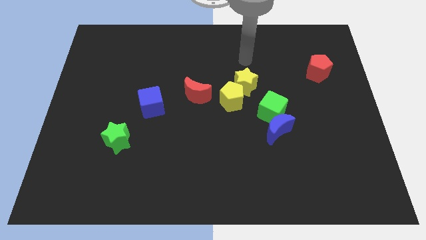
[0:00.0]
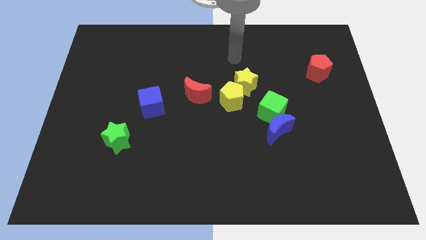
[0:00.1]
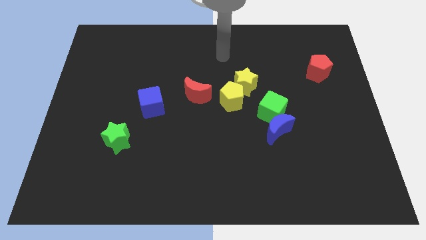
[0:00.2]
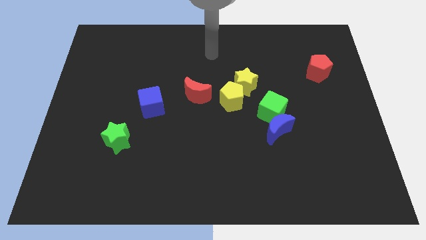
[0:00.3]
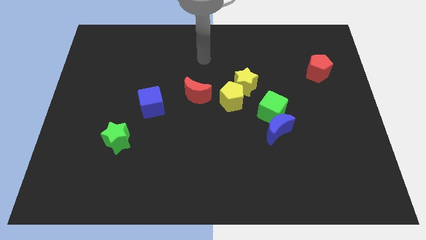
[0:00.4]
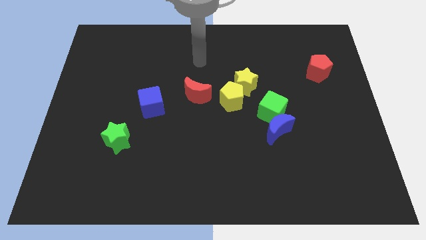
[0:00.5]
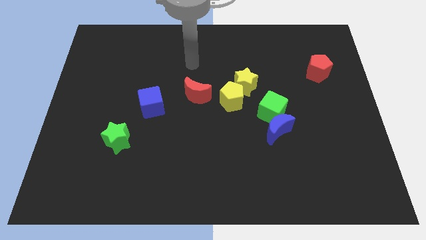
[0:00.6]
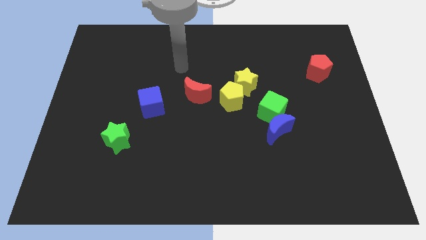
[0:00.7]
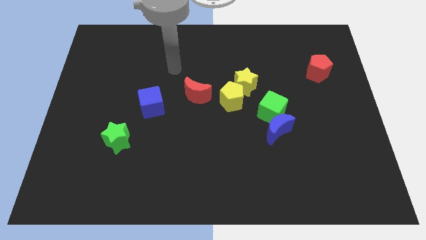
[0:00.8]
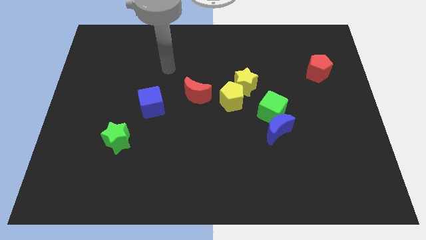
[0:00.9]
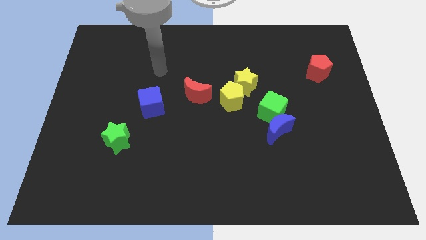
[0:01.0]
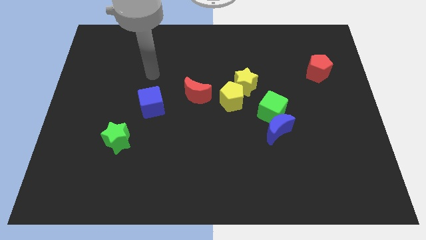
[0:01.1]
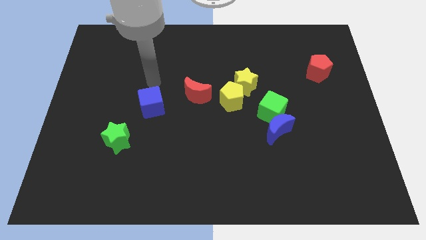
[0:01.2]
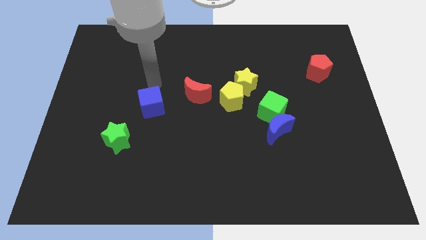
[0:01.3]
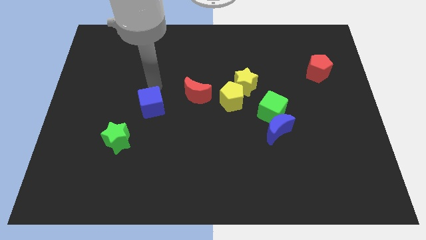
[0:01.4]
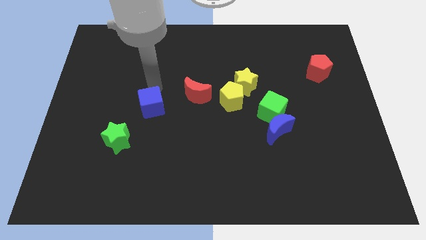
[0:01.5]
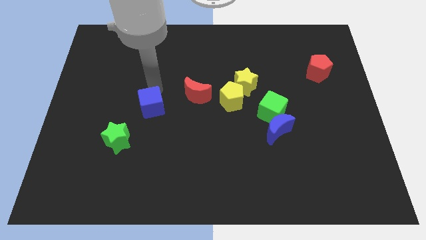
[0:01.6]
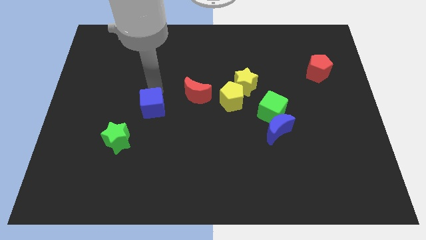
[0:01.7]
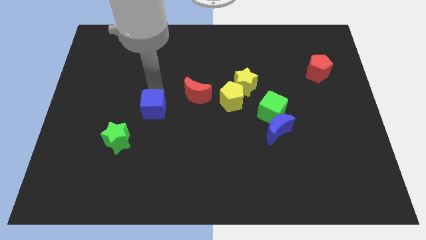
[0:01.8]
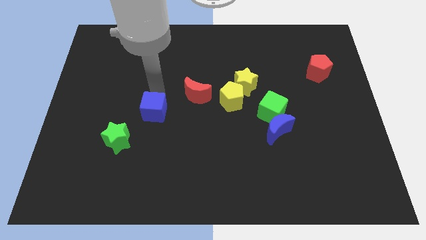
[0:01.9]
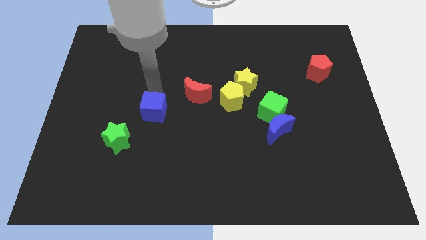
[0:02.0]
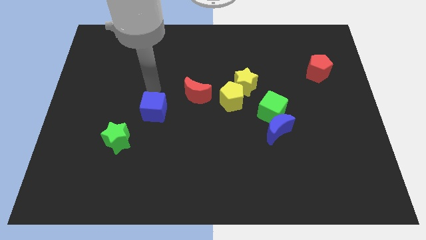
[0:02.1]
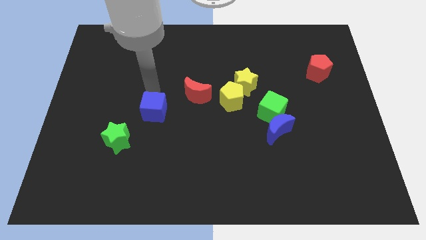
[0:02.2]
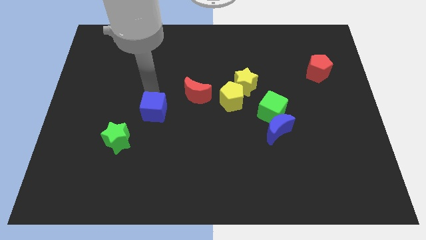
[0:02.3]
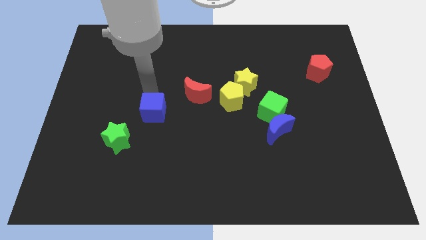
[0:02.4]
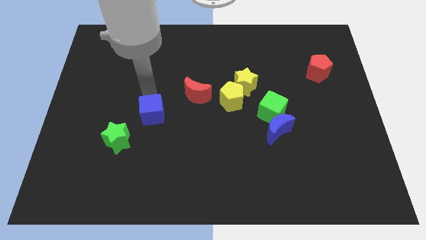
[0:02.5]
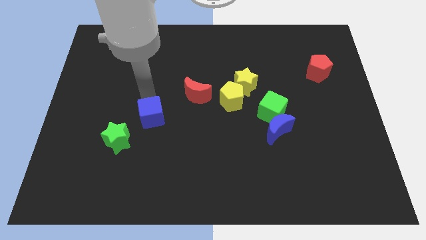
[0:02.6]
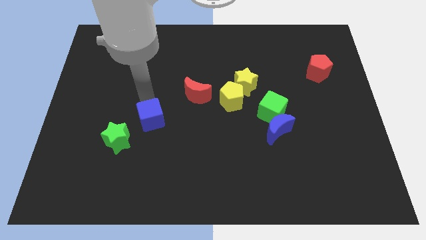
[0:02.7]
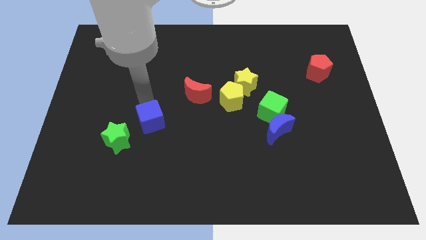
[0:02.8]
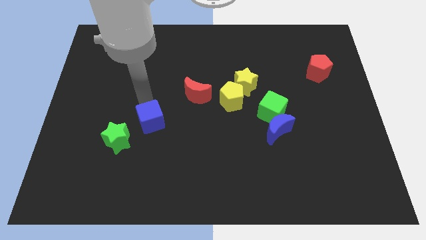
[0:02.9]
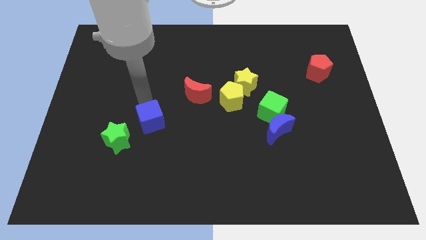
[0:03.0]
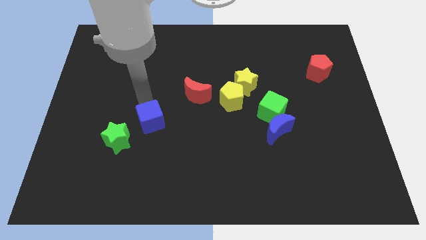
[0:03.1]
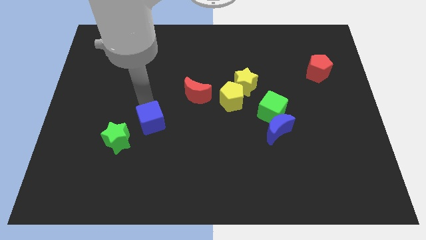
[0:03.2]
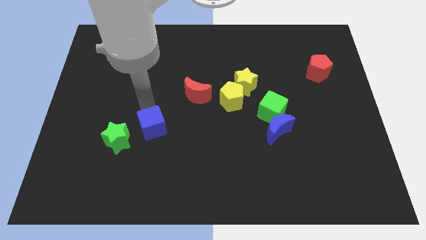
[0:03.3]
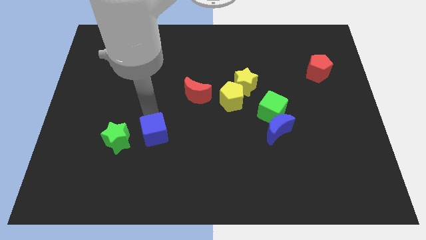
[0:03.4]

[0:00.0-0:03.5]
slightly push the blue cube down

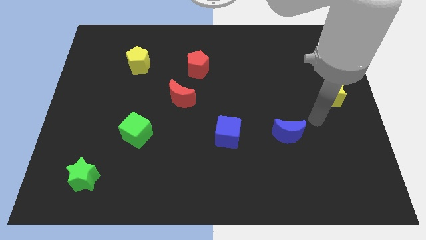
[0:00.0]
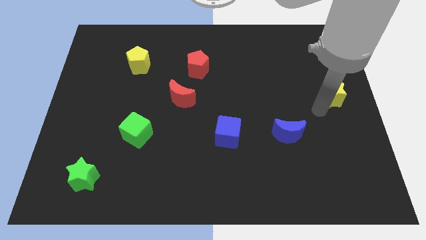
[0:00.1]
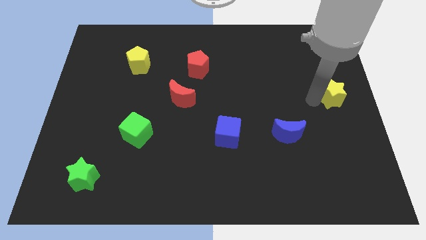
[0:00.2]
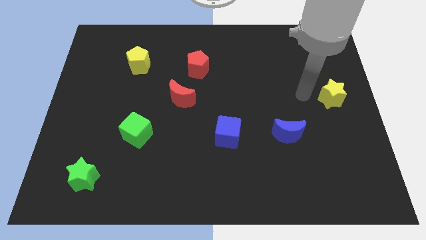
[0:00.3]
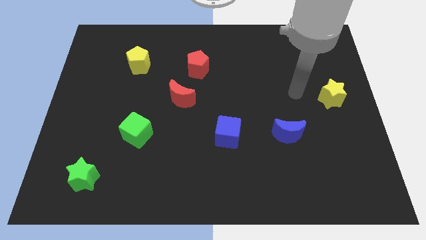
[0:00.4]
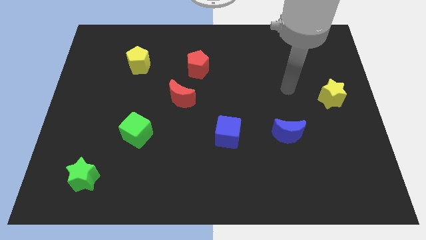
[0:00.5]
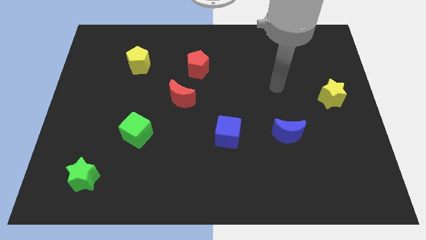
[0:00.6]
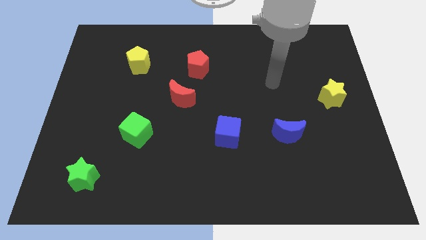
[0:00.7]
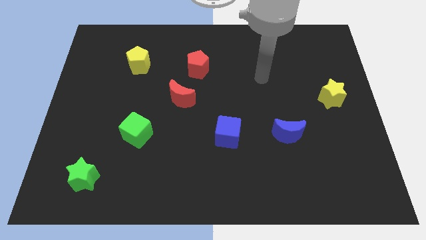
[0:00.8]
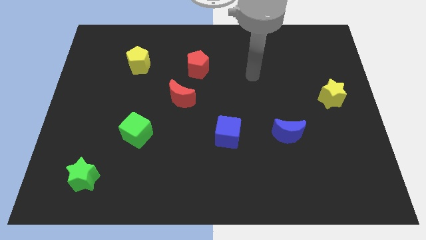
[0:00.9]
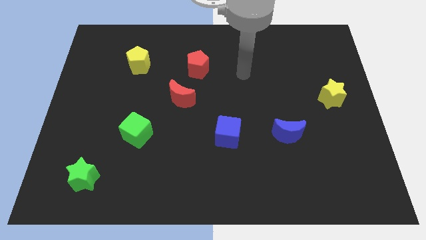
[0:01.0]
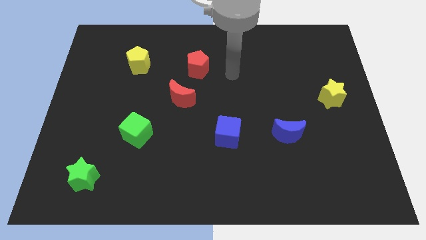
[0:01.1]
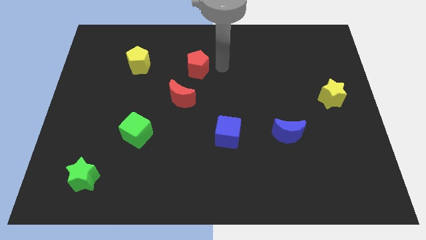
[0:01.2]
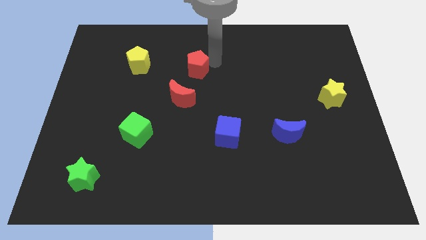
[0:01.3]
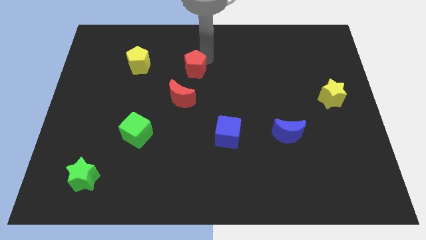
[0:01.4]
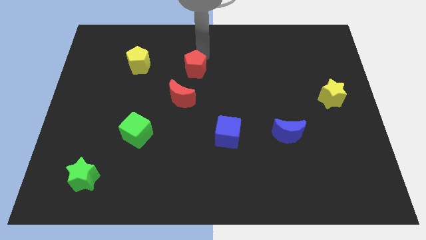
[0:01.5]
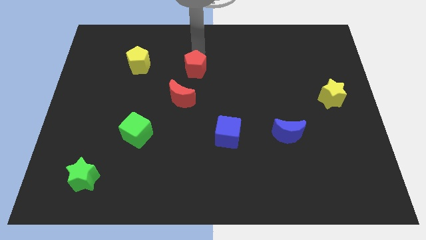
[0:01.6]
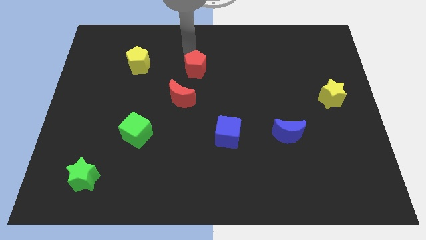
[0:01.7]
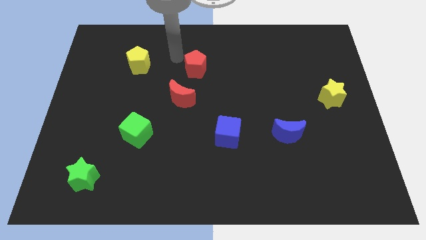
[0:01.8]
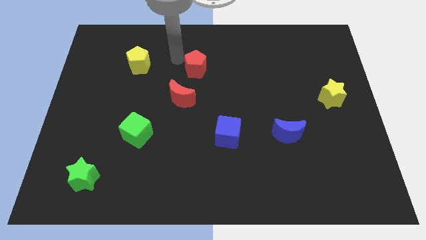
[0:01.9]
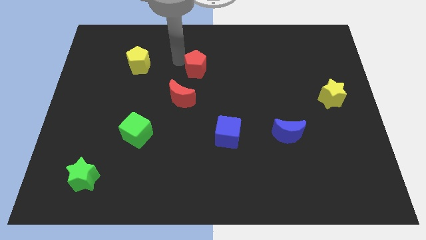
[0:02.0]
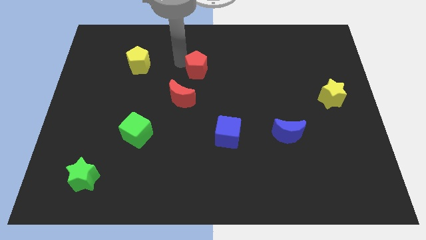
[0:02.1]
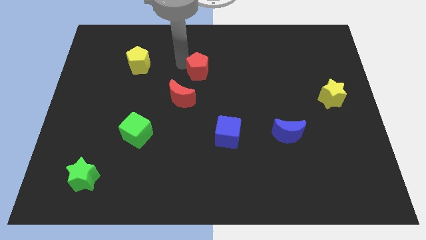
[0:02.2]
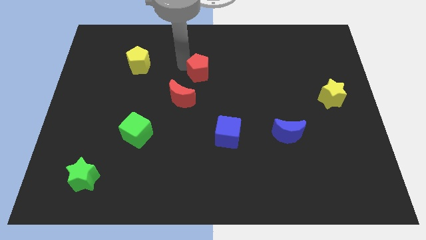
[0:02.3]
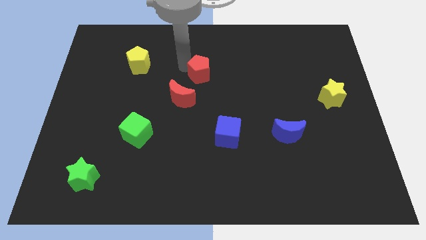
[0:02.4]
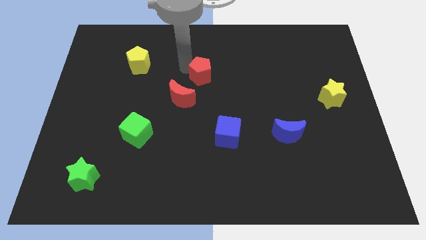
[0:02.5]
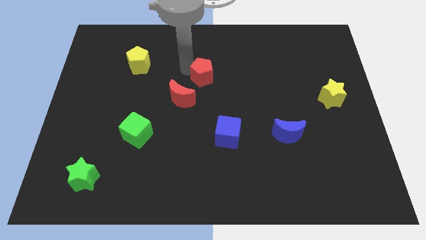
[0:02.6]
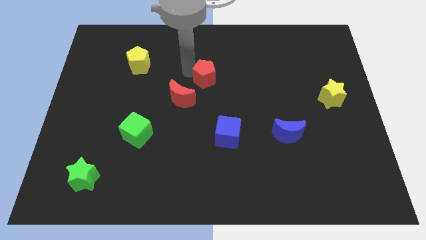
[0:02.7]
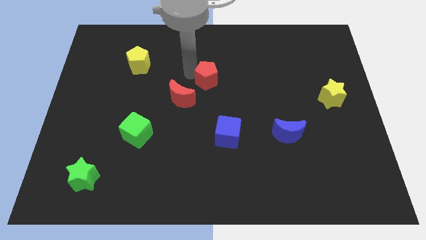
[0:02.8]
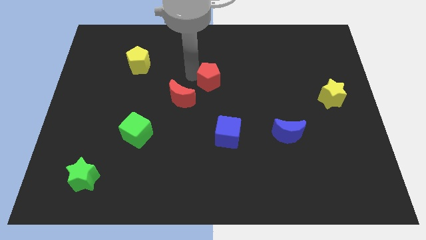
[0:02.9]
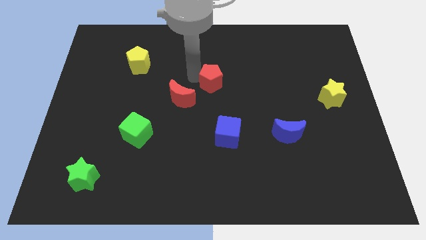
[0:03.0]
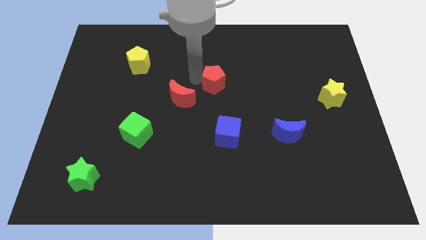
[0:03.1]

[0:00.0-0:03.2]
move the red pentagon a little downwards and then right

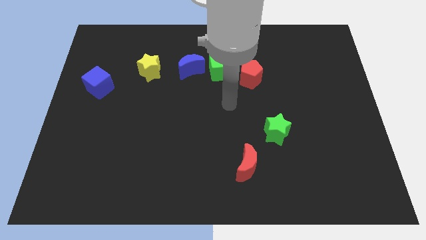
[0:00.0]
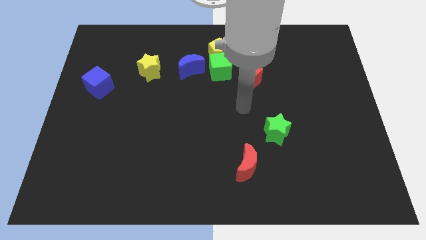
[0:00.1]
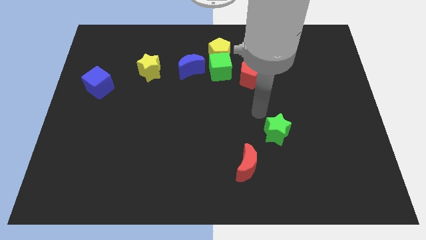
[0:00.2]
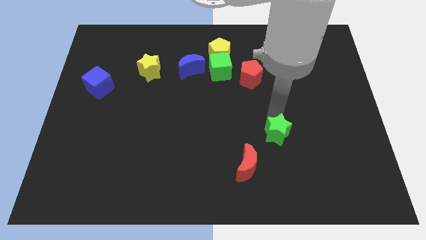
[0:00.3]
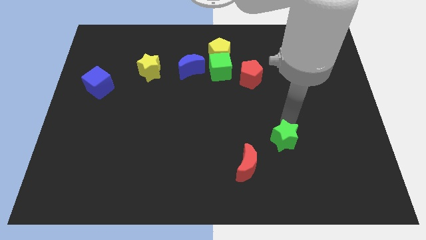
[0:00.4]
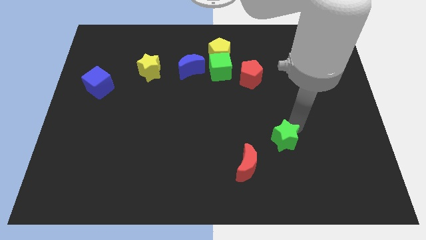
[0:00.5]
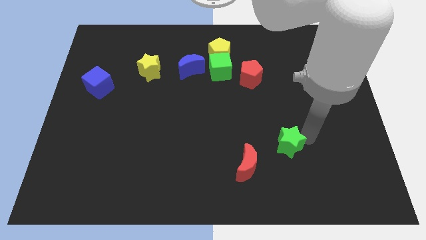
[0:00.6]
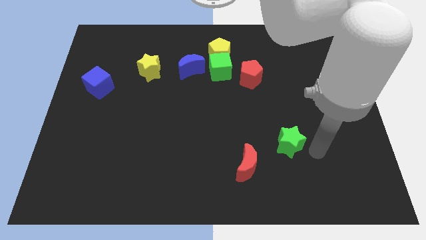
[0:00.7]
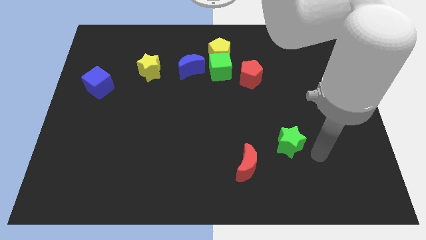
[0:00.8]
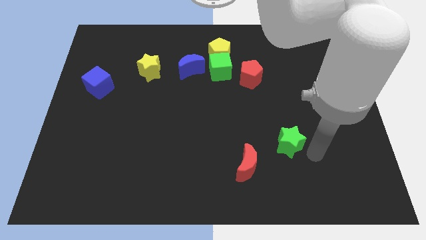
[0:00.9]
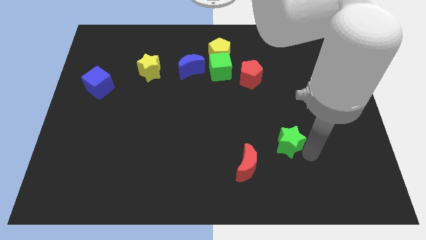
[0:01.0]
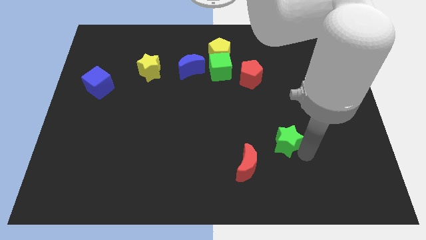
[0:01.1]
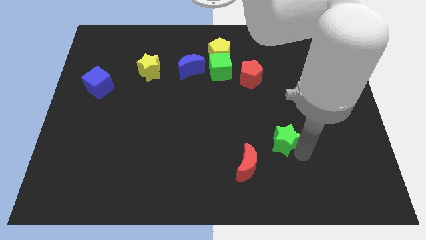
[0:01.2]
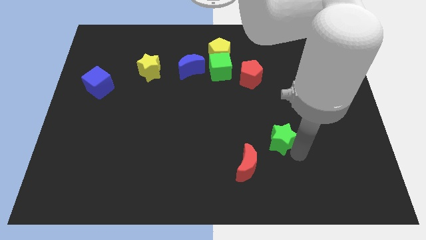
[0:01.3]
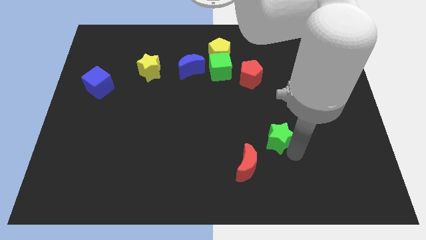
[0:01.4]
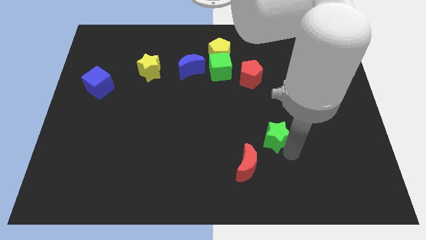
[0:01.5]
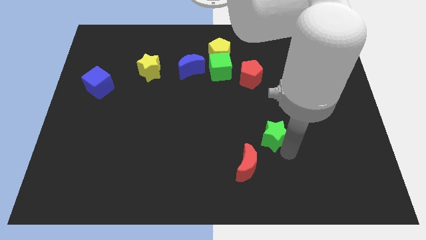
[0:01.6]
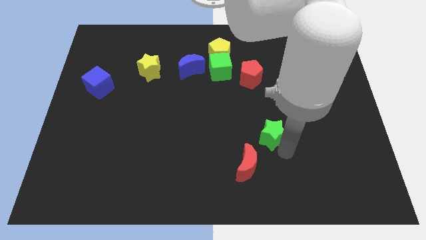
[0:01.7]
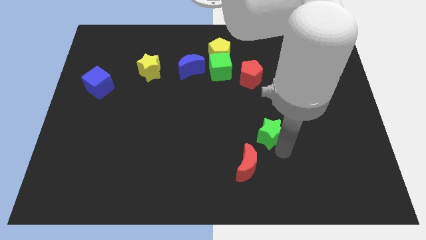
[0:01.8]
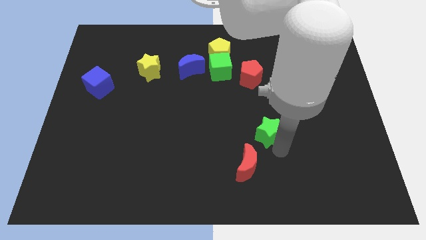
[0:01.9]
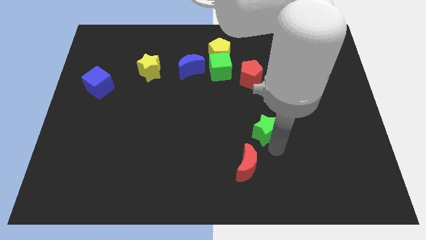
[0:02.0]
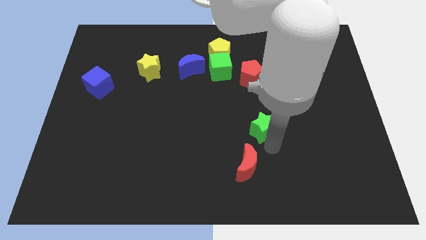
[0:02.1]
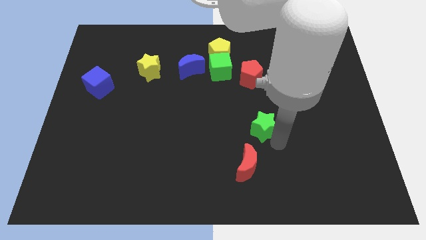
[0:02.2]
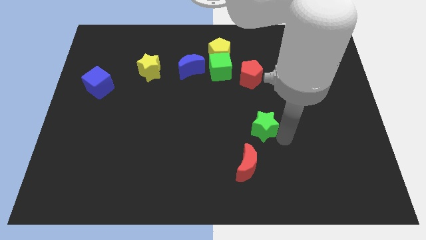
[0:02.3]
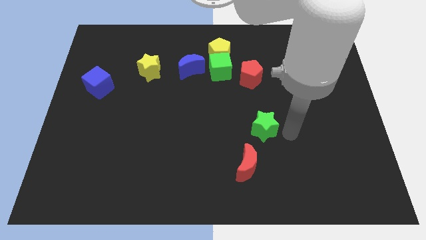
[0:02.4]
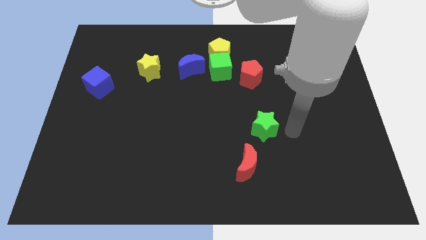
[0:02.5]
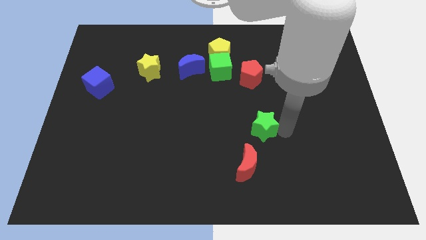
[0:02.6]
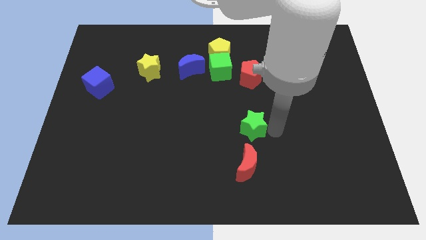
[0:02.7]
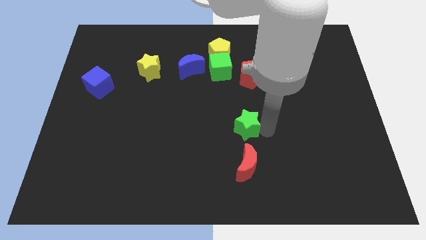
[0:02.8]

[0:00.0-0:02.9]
slightly slide the green star left
